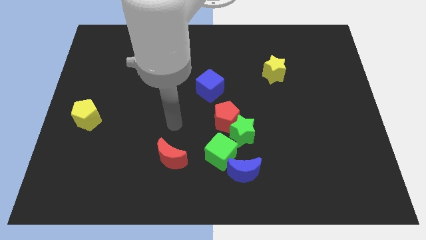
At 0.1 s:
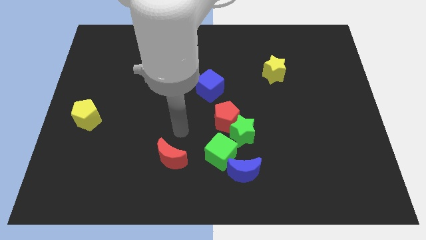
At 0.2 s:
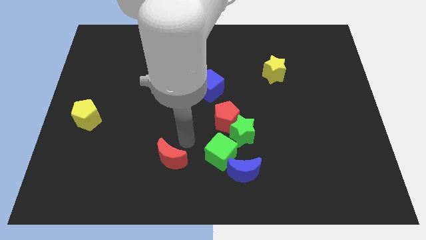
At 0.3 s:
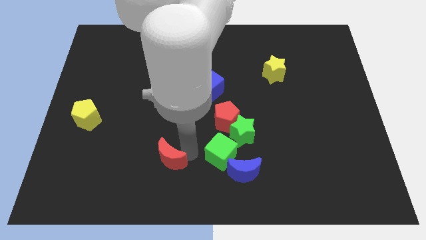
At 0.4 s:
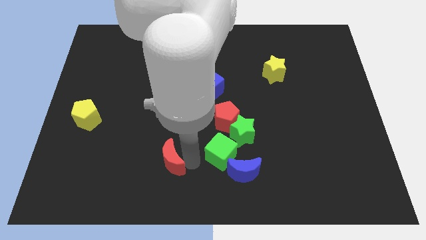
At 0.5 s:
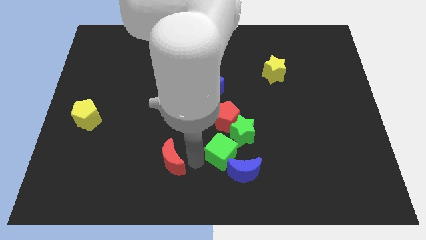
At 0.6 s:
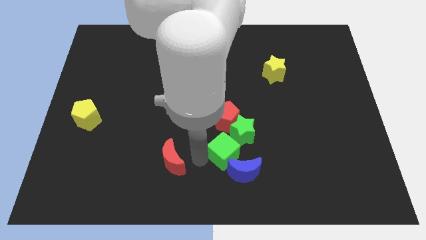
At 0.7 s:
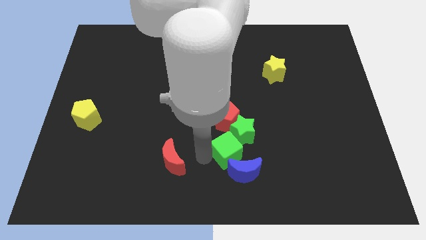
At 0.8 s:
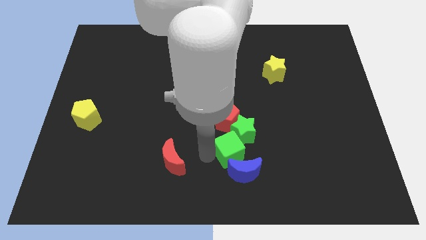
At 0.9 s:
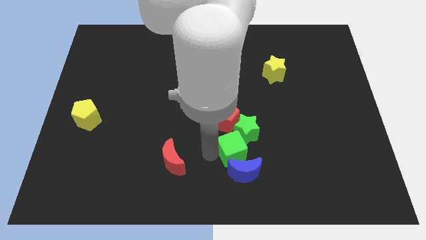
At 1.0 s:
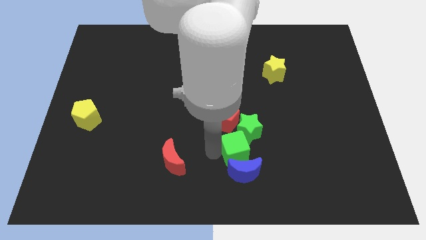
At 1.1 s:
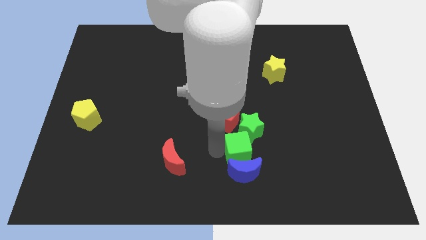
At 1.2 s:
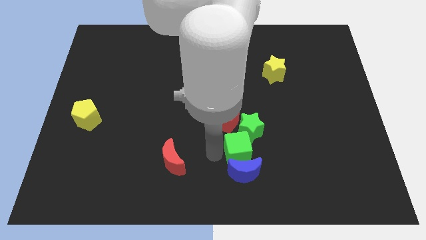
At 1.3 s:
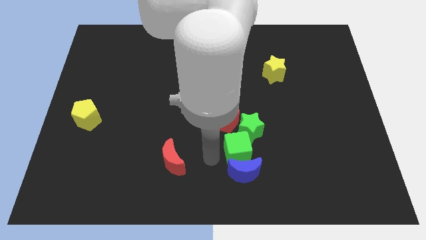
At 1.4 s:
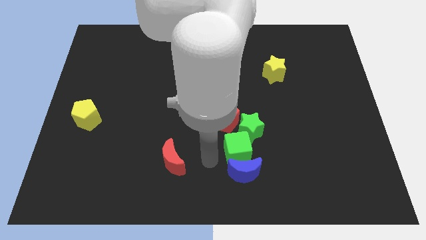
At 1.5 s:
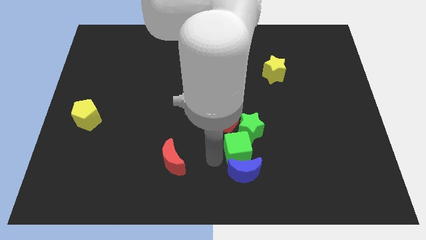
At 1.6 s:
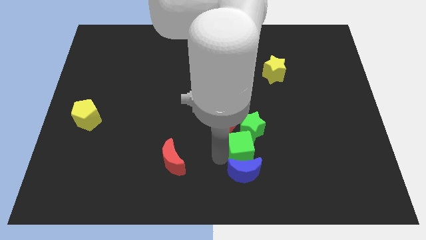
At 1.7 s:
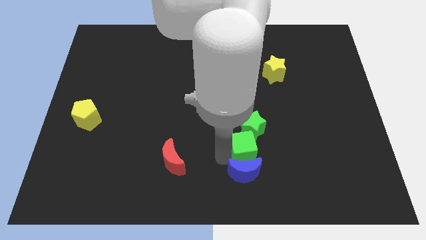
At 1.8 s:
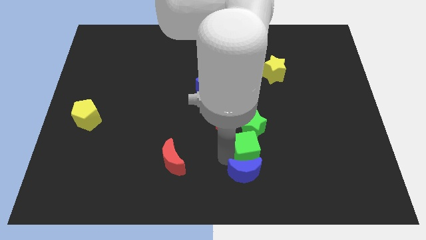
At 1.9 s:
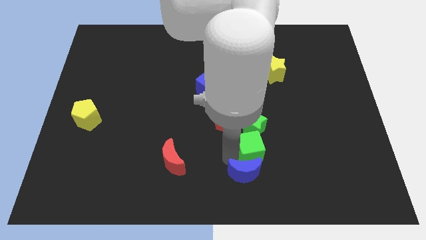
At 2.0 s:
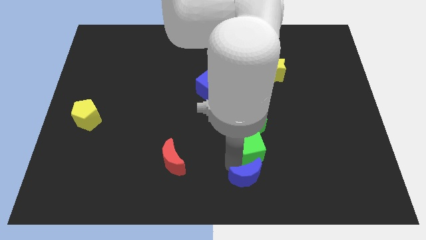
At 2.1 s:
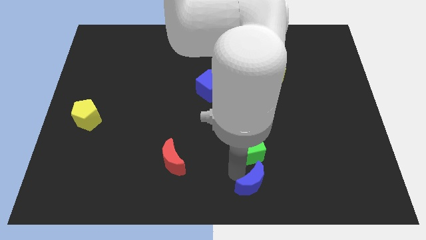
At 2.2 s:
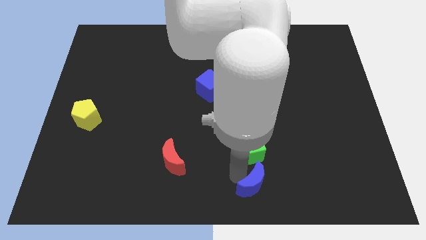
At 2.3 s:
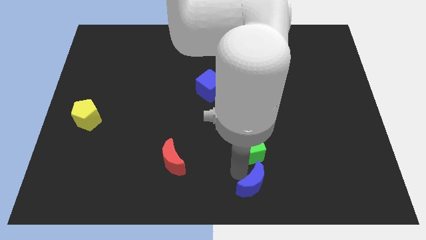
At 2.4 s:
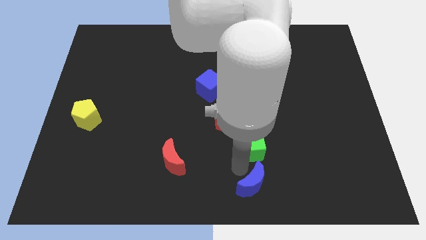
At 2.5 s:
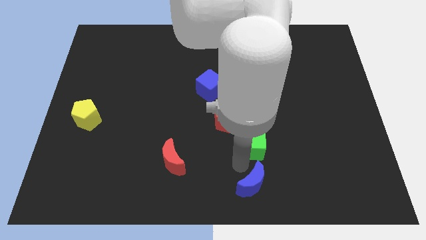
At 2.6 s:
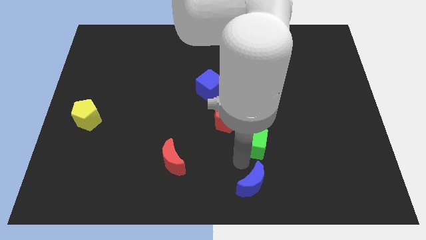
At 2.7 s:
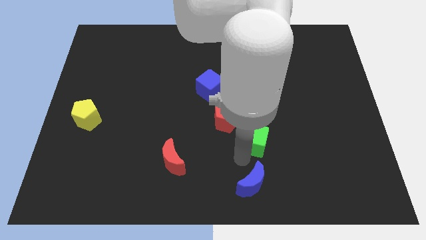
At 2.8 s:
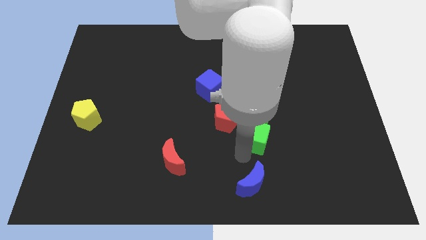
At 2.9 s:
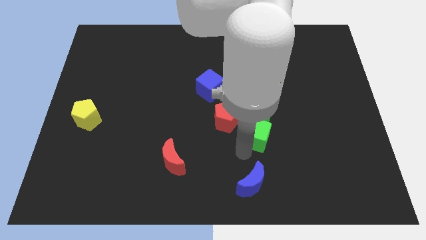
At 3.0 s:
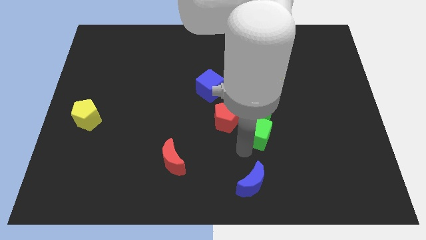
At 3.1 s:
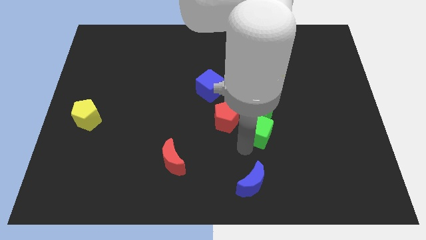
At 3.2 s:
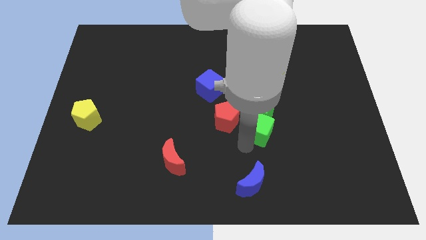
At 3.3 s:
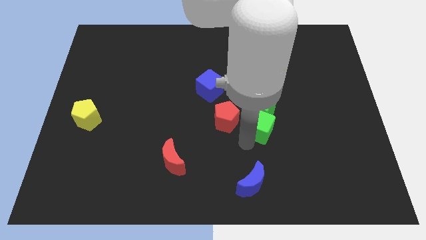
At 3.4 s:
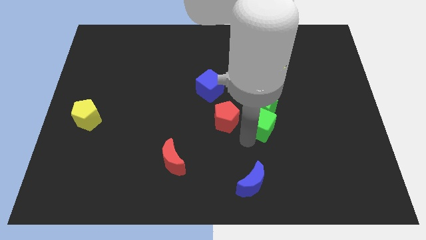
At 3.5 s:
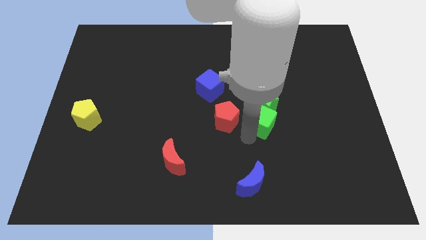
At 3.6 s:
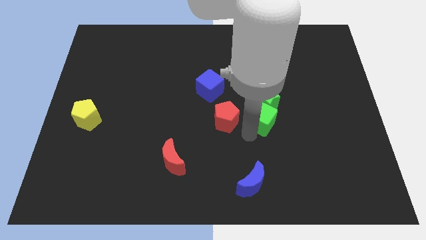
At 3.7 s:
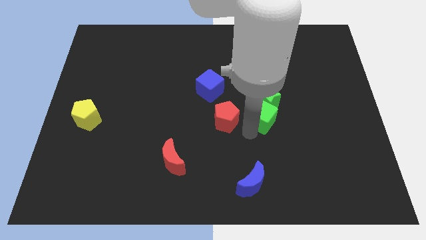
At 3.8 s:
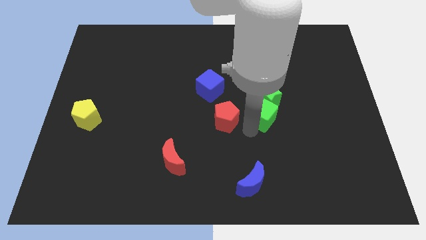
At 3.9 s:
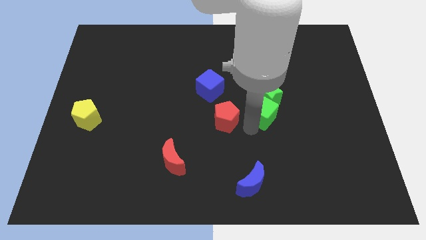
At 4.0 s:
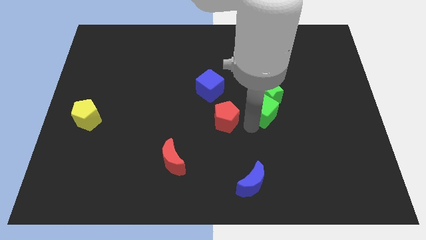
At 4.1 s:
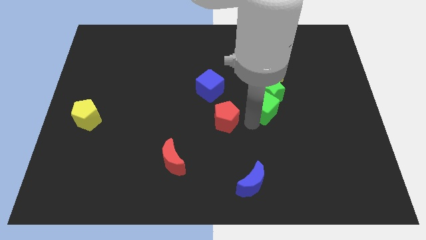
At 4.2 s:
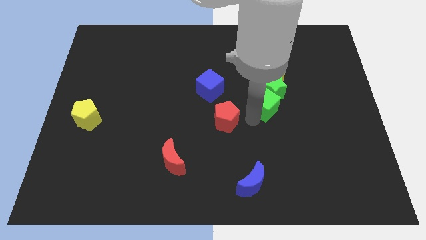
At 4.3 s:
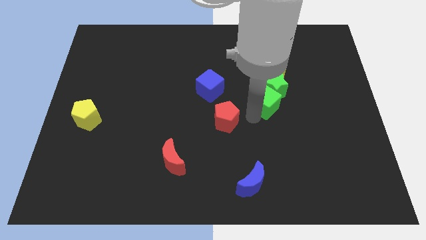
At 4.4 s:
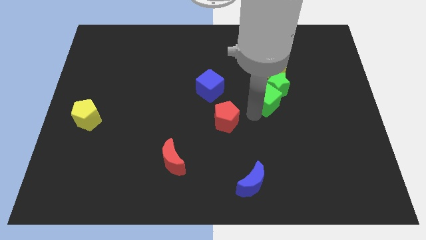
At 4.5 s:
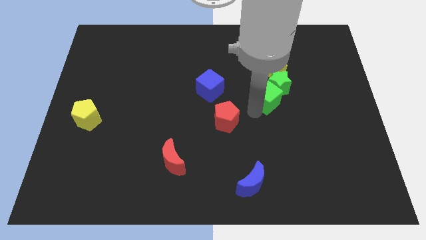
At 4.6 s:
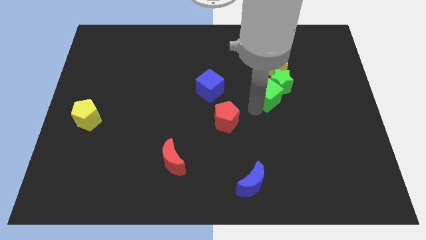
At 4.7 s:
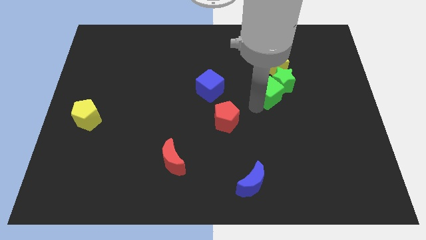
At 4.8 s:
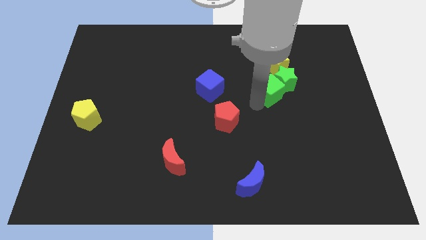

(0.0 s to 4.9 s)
push the green cube diagonally up and right

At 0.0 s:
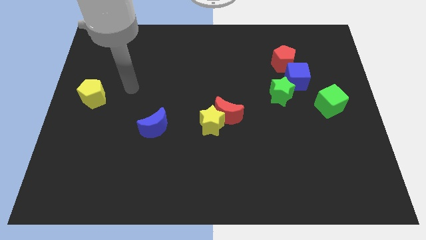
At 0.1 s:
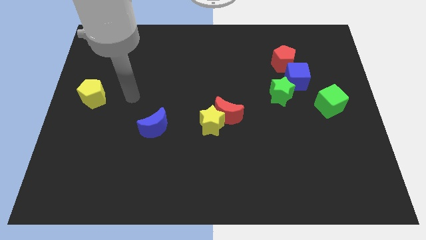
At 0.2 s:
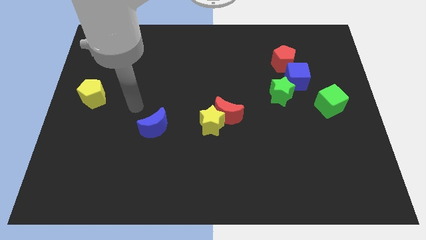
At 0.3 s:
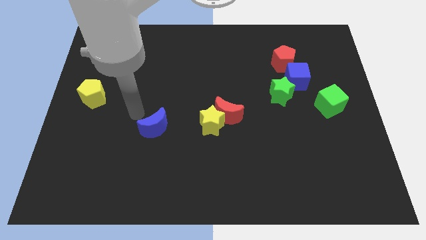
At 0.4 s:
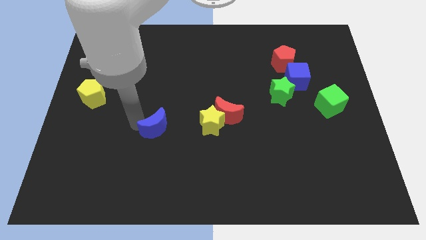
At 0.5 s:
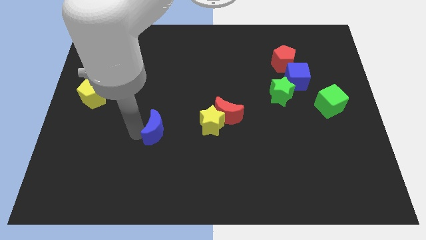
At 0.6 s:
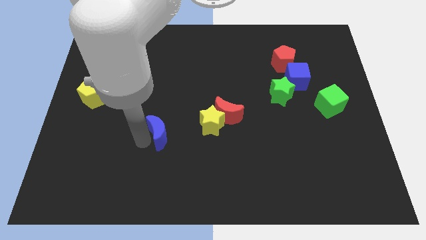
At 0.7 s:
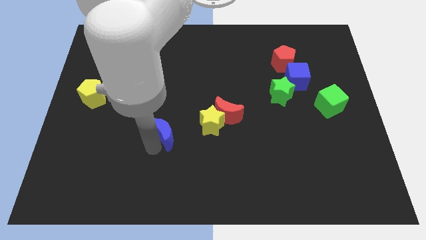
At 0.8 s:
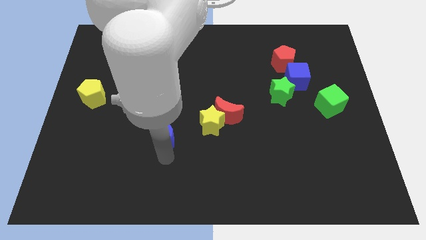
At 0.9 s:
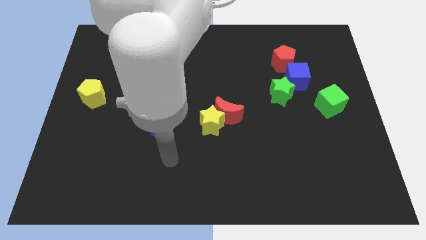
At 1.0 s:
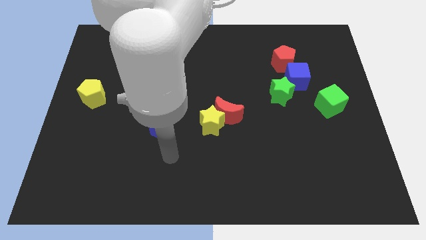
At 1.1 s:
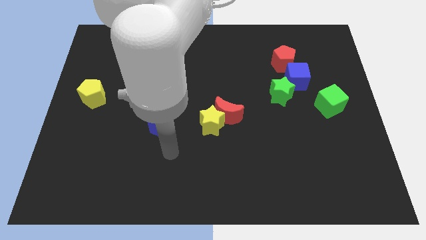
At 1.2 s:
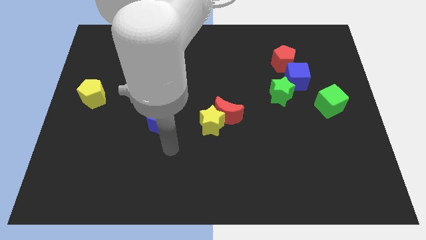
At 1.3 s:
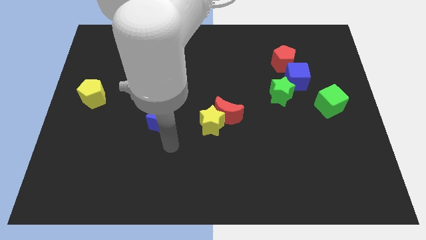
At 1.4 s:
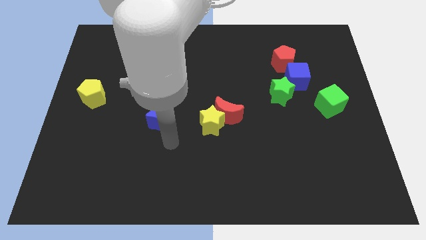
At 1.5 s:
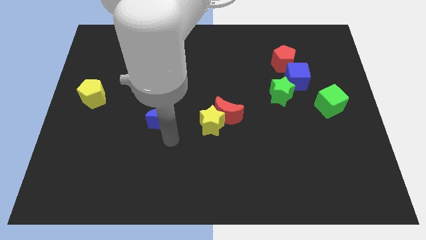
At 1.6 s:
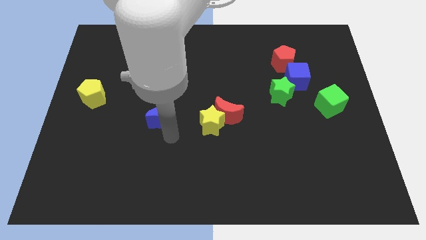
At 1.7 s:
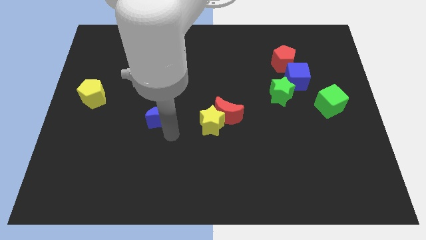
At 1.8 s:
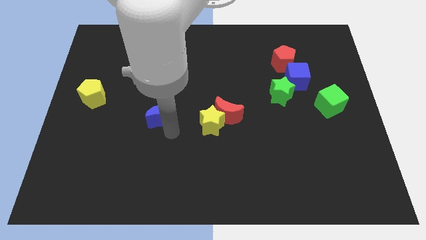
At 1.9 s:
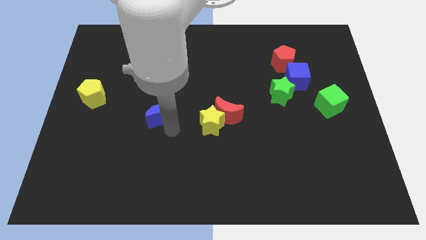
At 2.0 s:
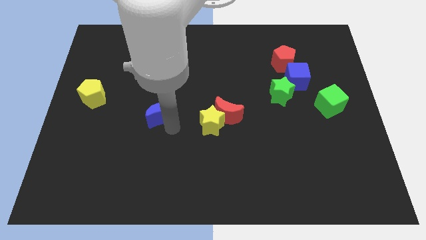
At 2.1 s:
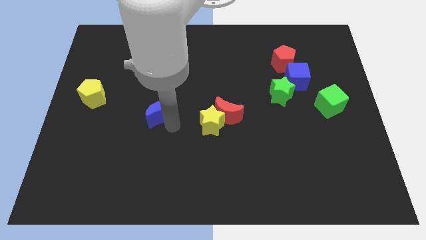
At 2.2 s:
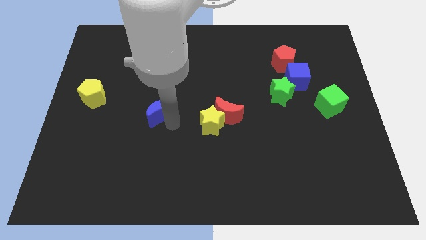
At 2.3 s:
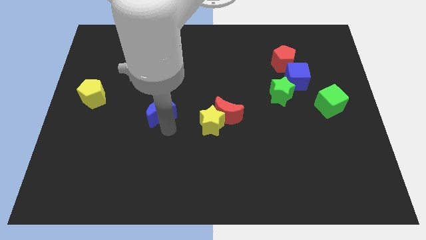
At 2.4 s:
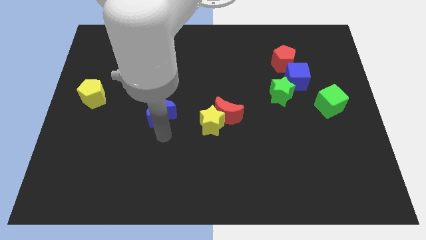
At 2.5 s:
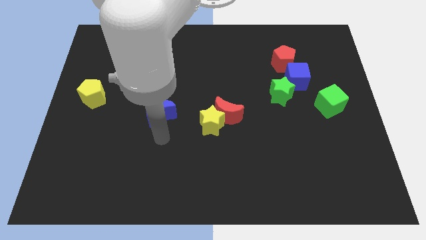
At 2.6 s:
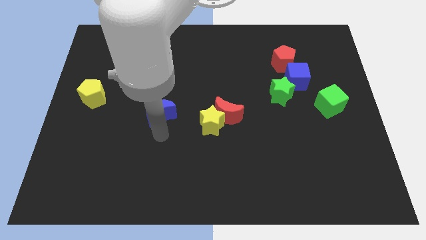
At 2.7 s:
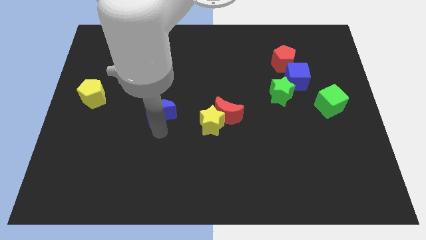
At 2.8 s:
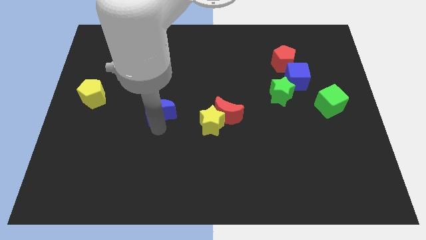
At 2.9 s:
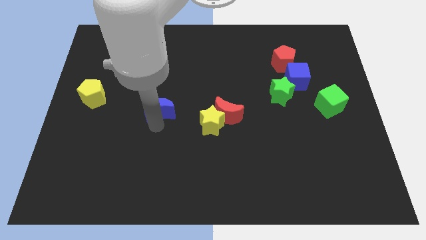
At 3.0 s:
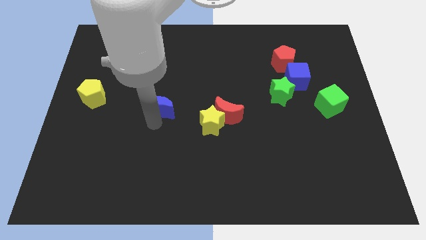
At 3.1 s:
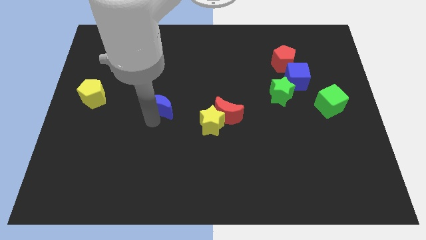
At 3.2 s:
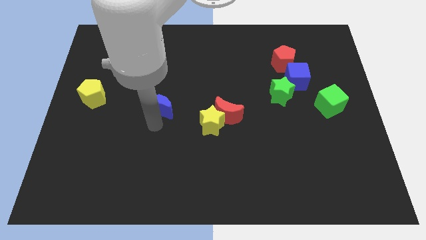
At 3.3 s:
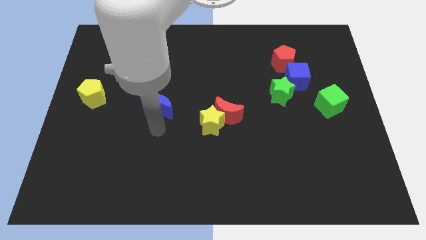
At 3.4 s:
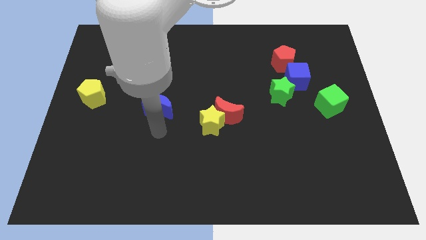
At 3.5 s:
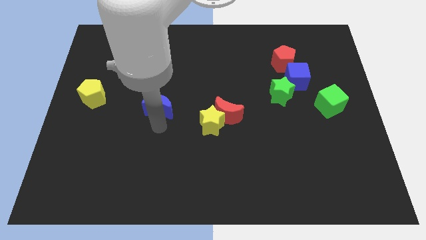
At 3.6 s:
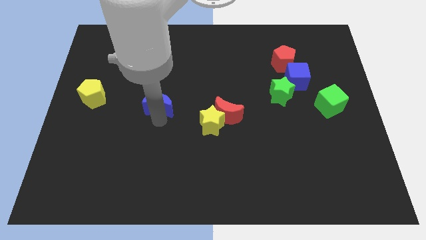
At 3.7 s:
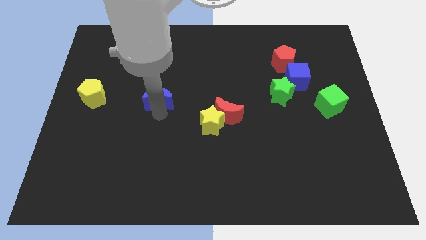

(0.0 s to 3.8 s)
slightly push the blue moon up
